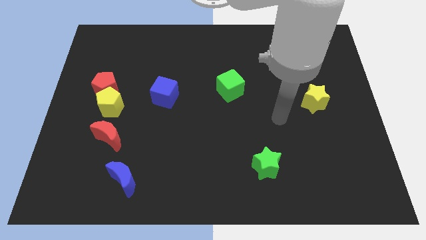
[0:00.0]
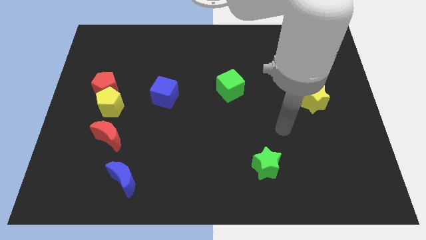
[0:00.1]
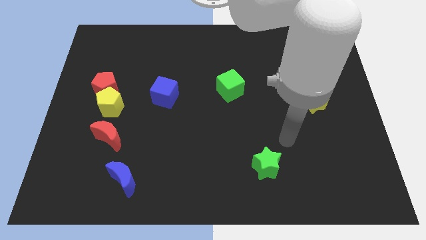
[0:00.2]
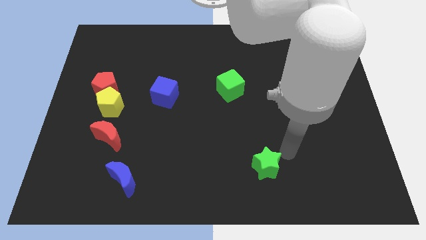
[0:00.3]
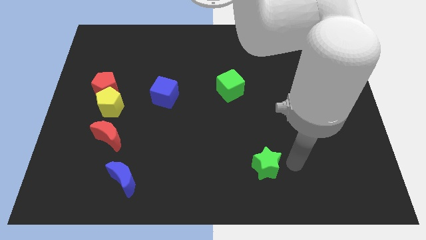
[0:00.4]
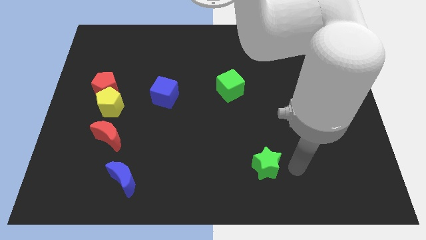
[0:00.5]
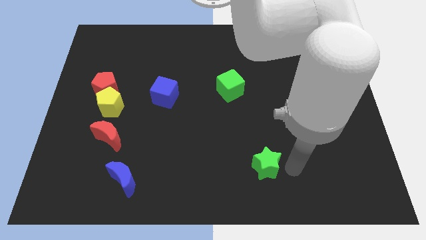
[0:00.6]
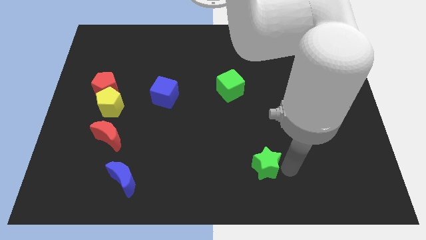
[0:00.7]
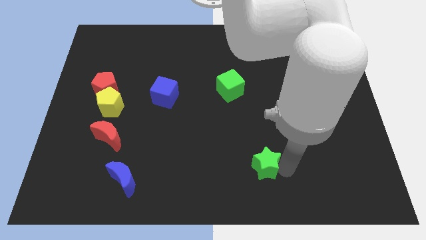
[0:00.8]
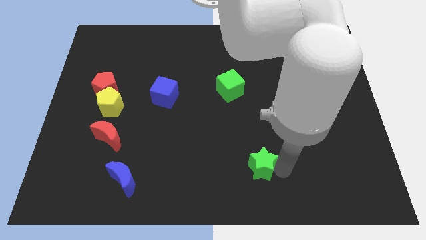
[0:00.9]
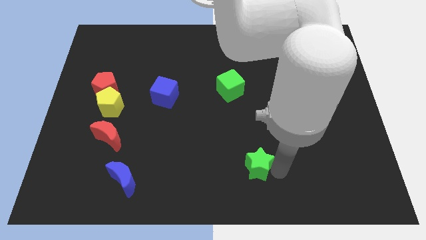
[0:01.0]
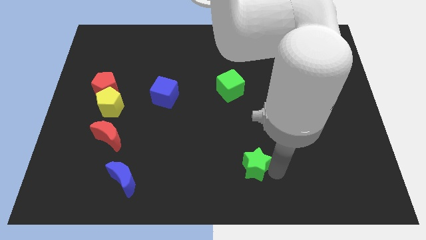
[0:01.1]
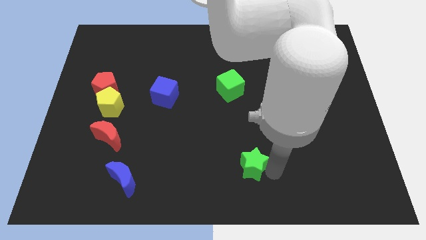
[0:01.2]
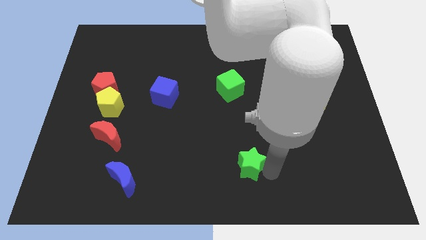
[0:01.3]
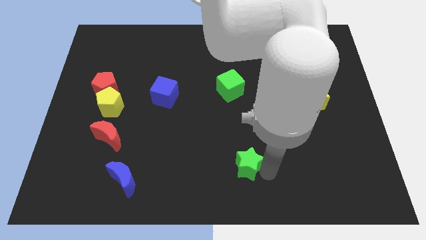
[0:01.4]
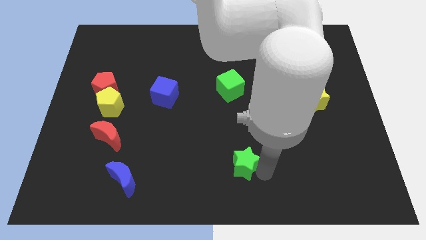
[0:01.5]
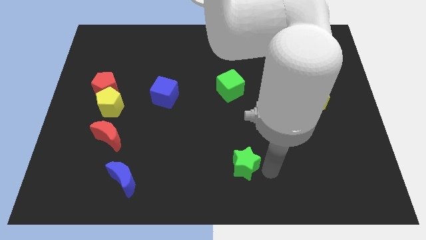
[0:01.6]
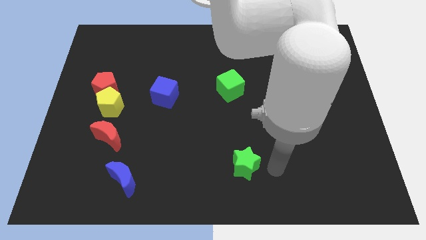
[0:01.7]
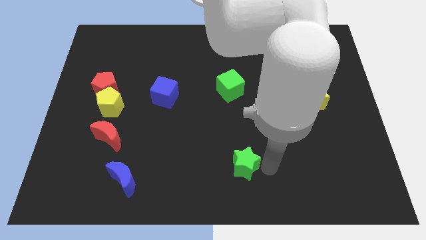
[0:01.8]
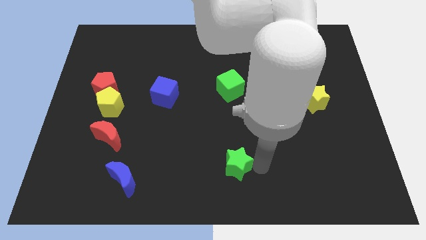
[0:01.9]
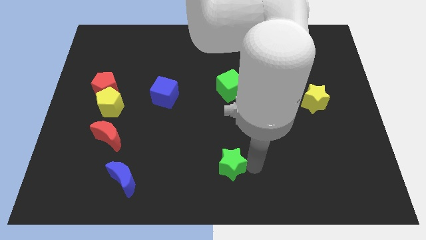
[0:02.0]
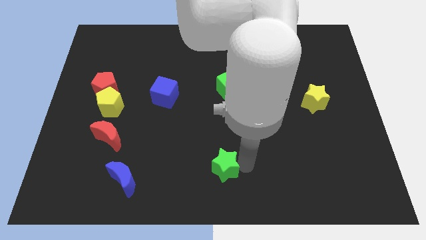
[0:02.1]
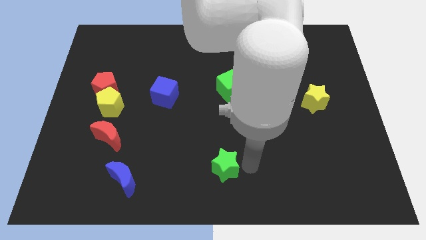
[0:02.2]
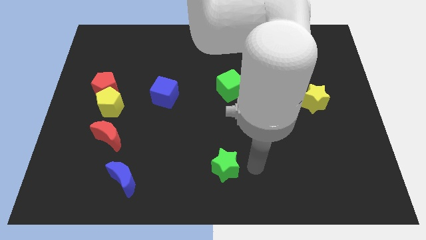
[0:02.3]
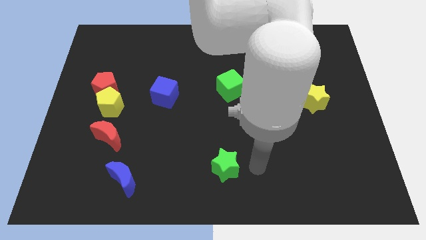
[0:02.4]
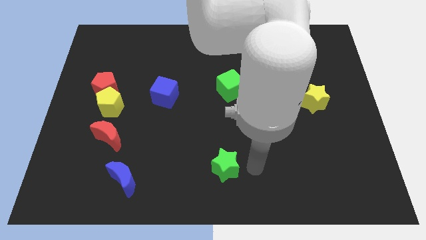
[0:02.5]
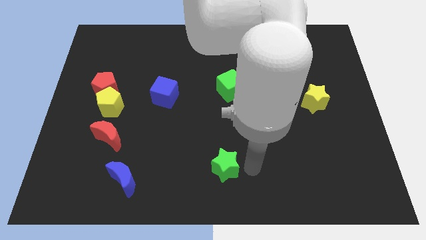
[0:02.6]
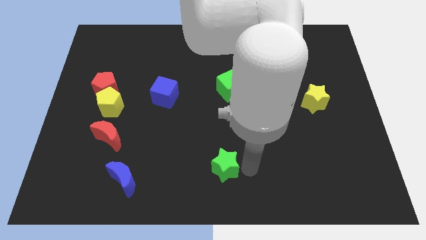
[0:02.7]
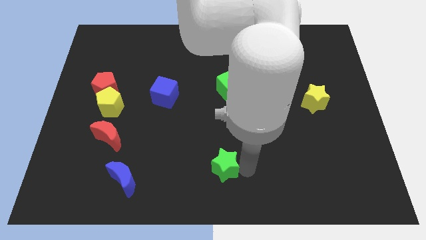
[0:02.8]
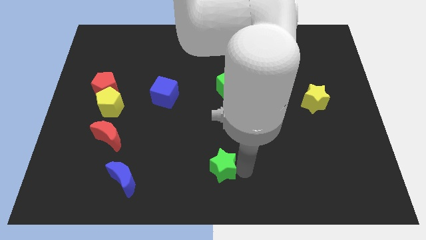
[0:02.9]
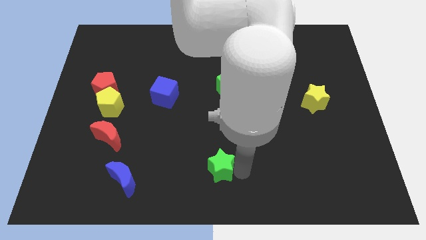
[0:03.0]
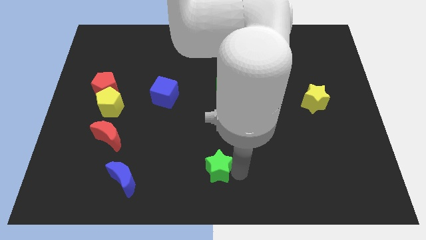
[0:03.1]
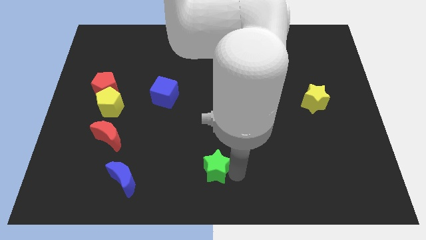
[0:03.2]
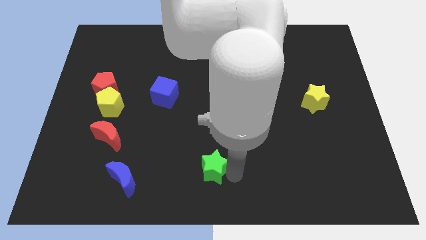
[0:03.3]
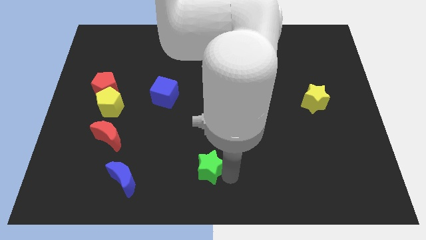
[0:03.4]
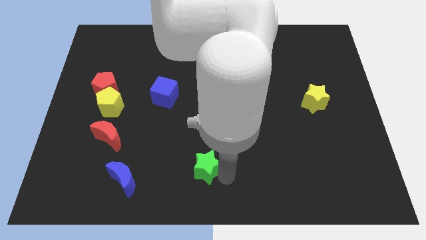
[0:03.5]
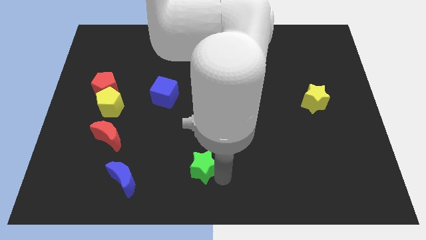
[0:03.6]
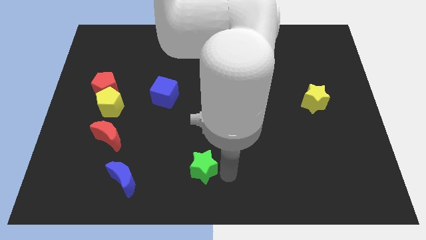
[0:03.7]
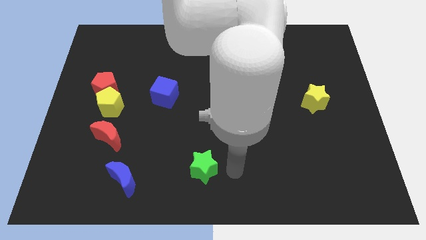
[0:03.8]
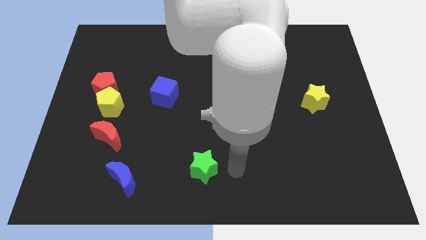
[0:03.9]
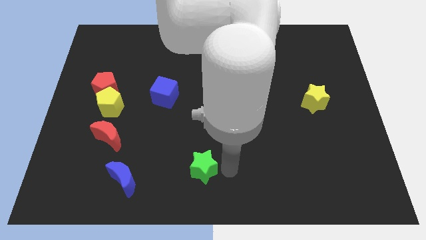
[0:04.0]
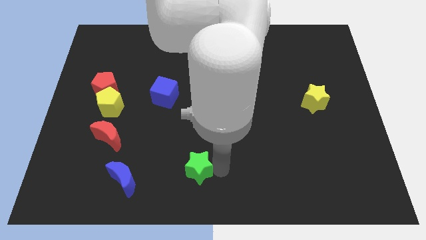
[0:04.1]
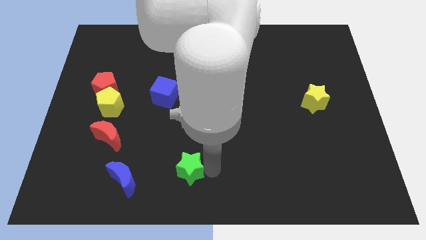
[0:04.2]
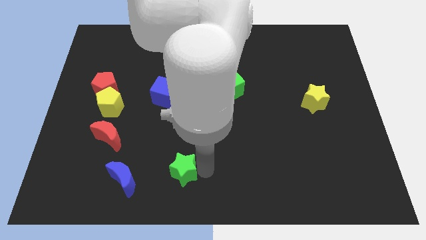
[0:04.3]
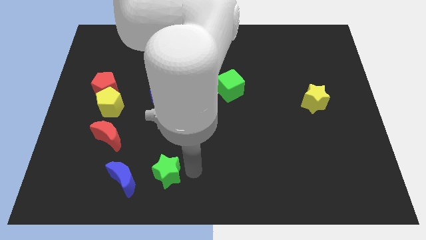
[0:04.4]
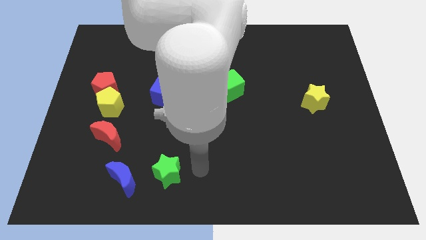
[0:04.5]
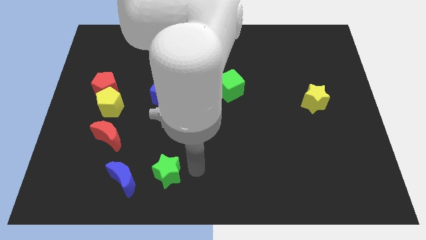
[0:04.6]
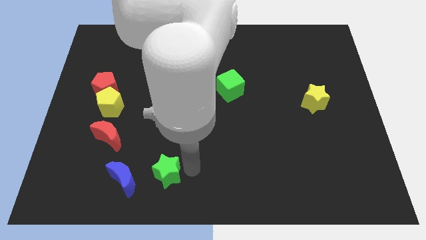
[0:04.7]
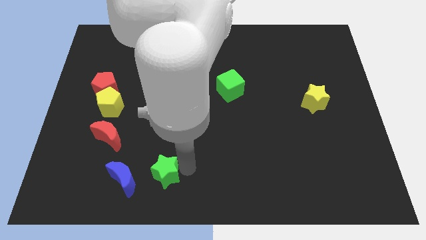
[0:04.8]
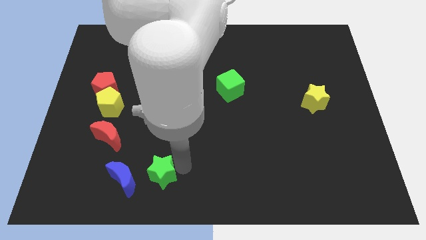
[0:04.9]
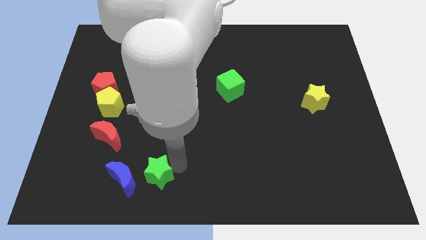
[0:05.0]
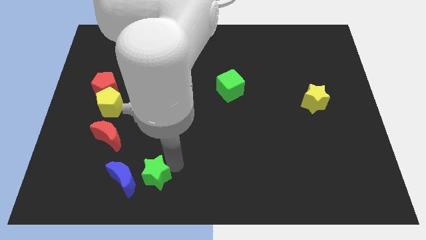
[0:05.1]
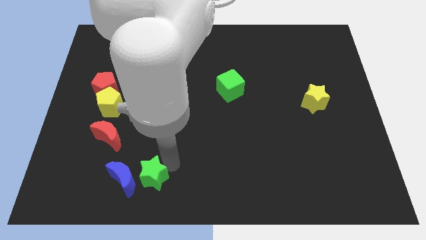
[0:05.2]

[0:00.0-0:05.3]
move the green star to the blue moon

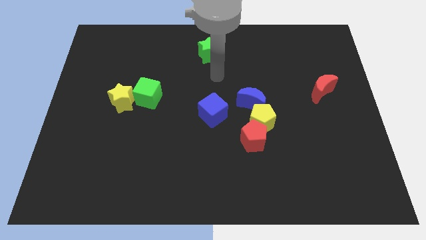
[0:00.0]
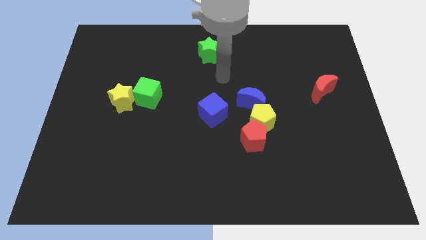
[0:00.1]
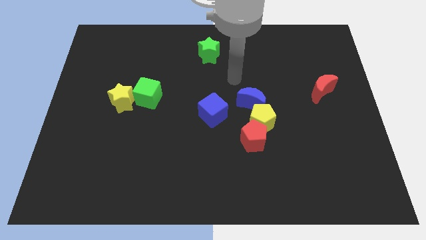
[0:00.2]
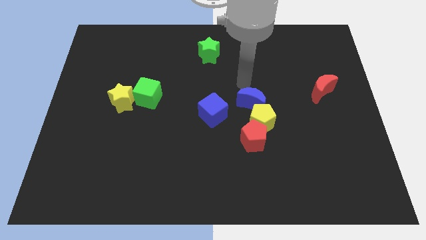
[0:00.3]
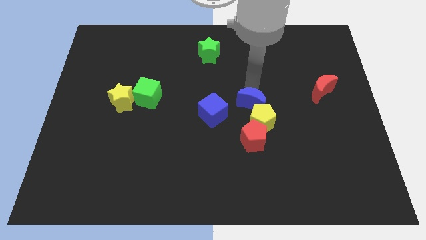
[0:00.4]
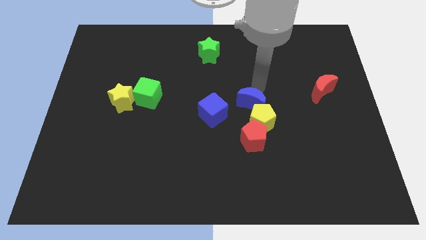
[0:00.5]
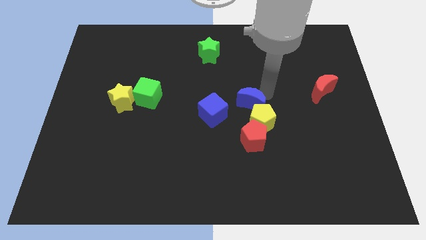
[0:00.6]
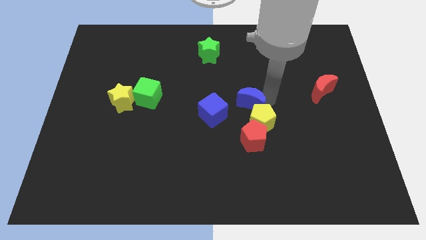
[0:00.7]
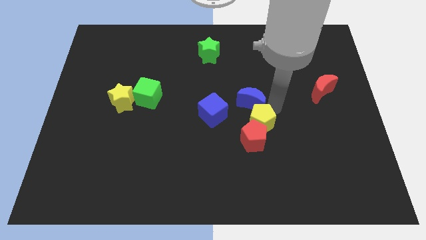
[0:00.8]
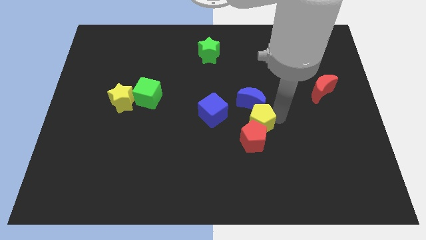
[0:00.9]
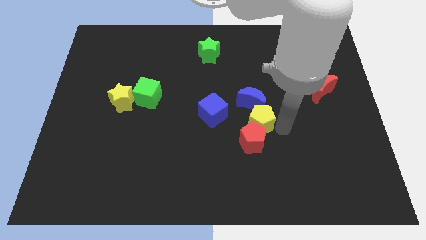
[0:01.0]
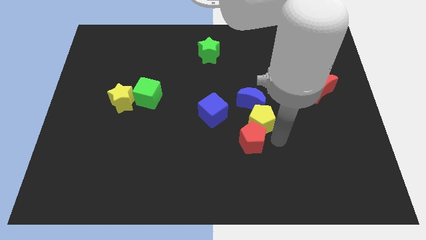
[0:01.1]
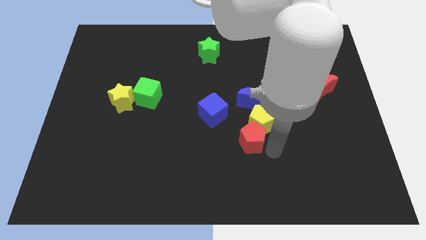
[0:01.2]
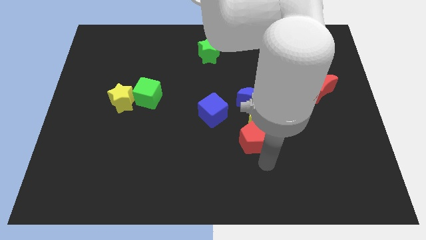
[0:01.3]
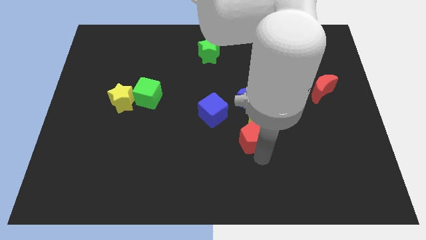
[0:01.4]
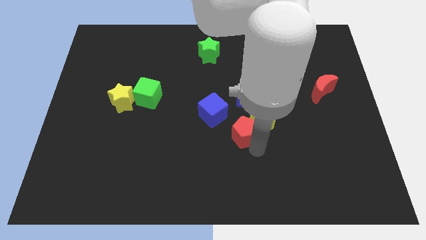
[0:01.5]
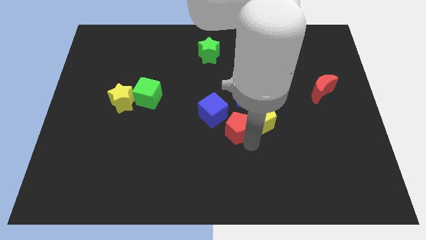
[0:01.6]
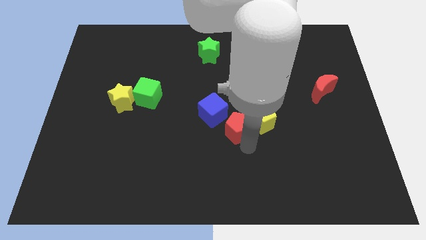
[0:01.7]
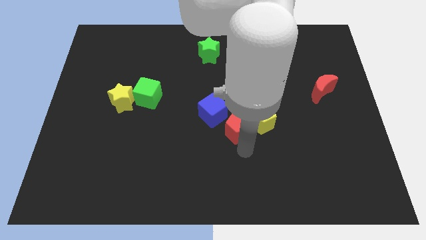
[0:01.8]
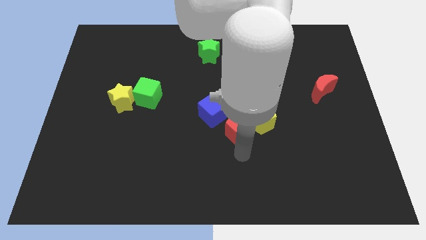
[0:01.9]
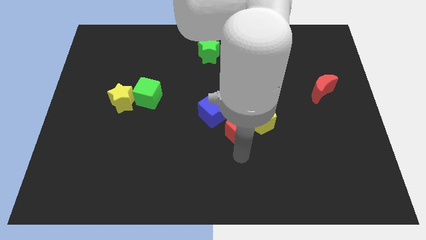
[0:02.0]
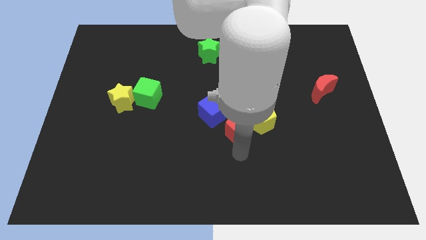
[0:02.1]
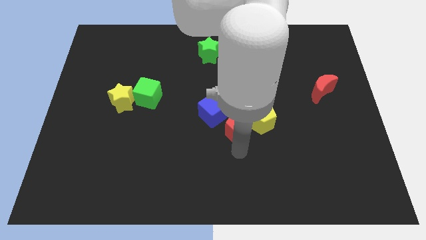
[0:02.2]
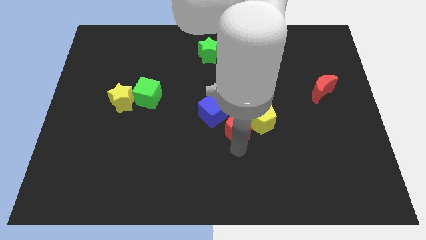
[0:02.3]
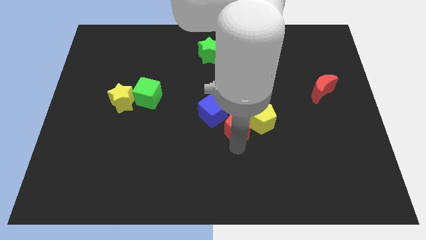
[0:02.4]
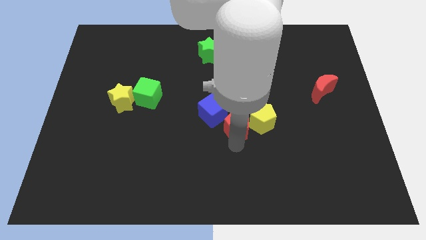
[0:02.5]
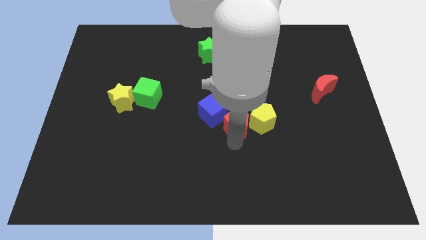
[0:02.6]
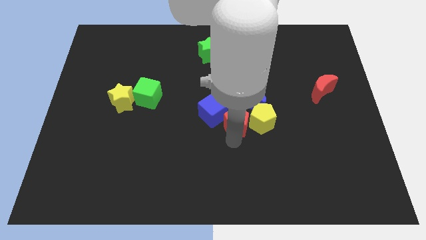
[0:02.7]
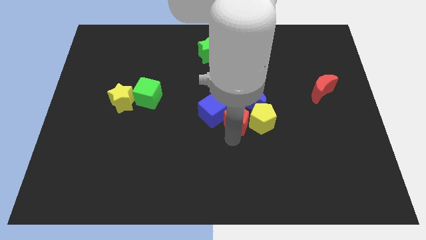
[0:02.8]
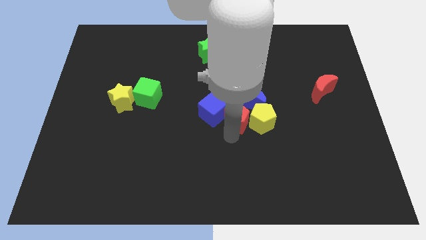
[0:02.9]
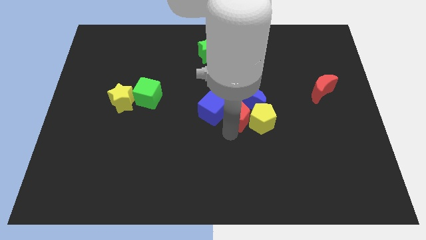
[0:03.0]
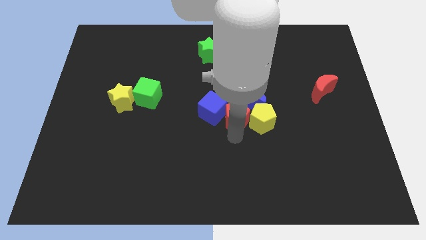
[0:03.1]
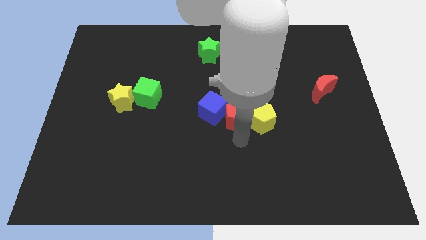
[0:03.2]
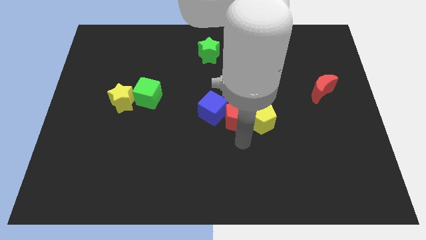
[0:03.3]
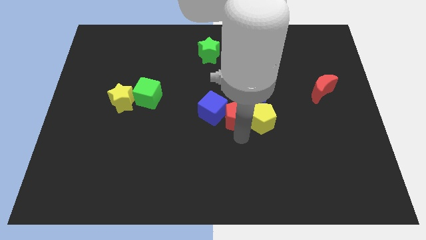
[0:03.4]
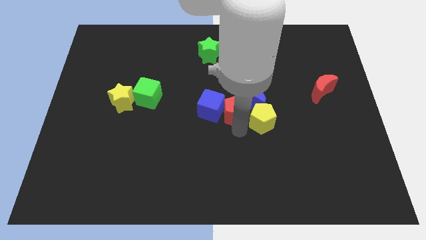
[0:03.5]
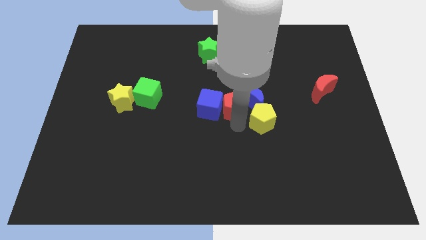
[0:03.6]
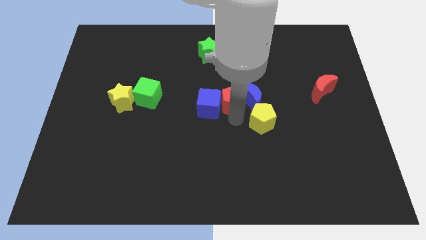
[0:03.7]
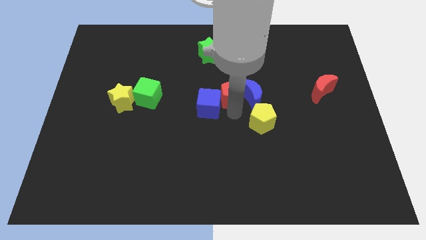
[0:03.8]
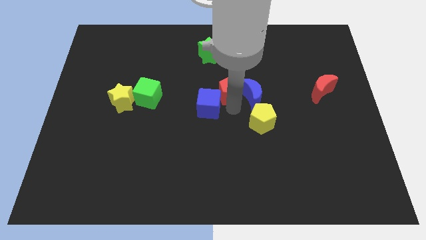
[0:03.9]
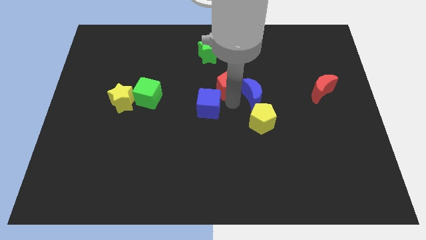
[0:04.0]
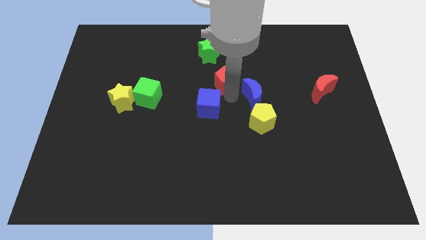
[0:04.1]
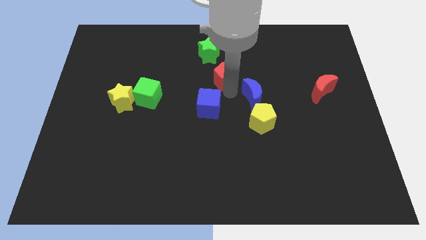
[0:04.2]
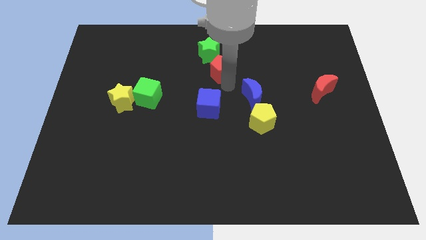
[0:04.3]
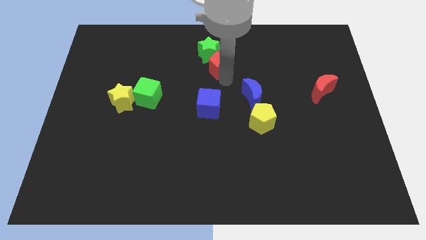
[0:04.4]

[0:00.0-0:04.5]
push the red pentagon next to the green star
